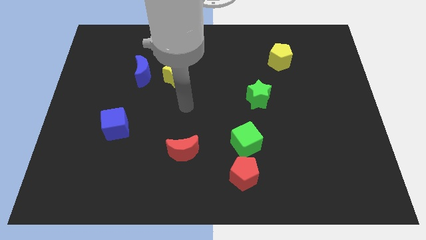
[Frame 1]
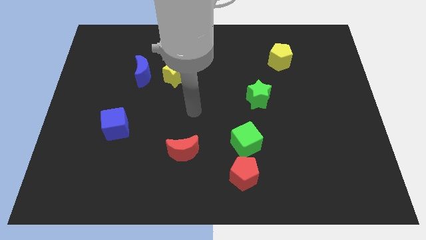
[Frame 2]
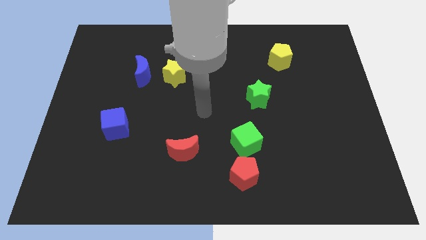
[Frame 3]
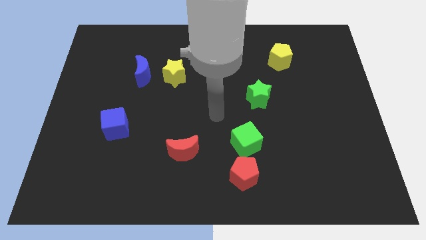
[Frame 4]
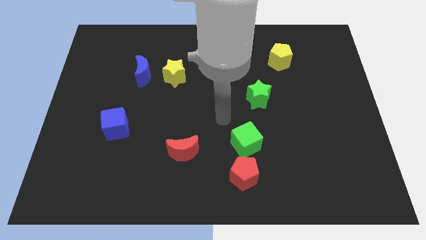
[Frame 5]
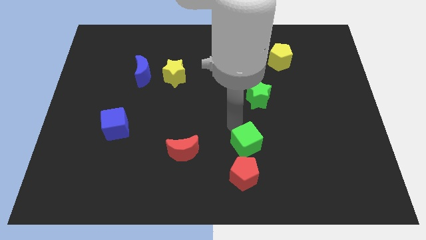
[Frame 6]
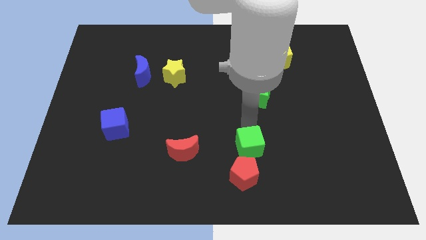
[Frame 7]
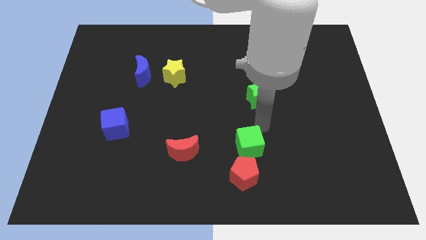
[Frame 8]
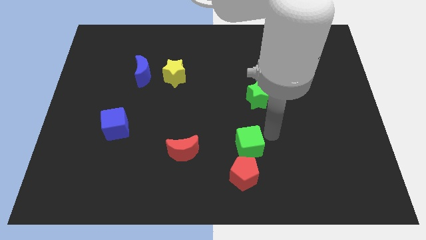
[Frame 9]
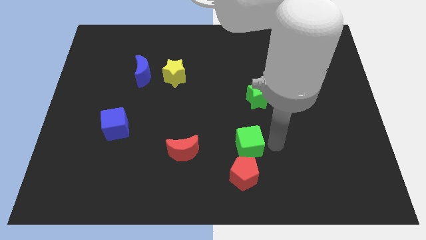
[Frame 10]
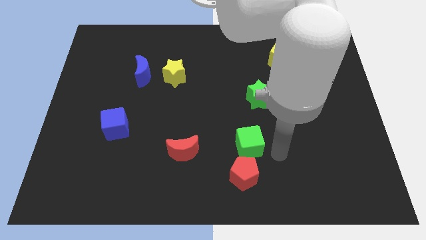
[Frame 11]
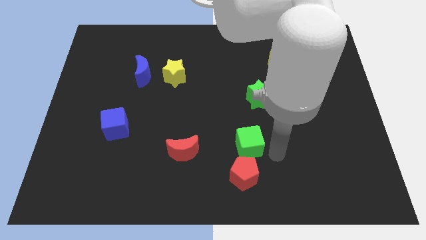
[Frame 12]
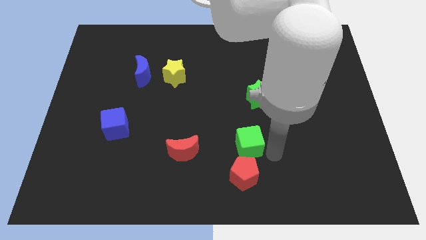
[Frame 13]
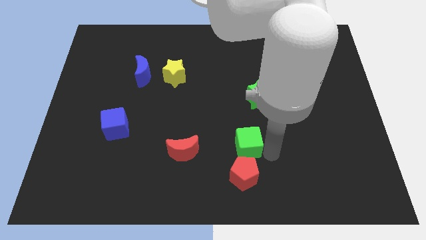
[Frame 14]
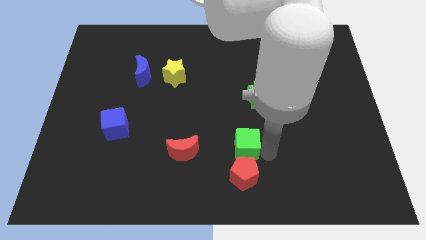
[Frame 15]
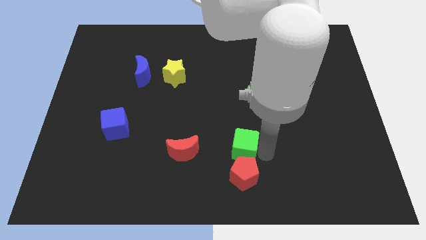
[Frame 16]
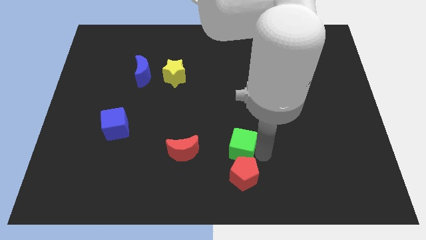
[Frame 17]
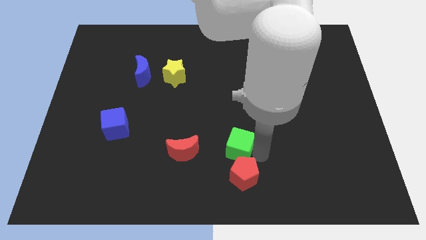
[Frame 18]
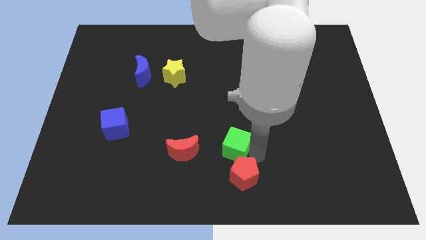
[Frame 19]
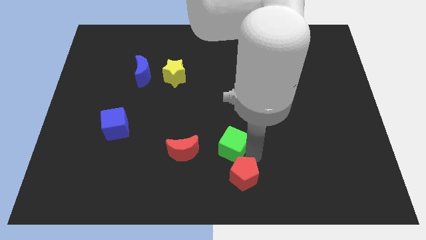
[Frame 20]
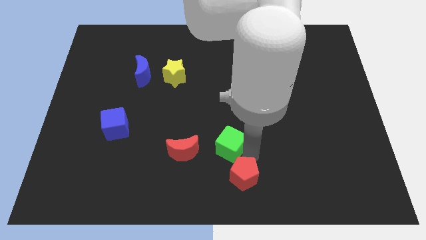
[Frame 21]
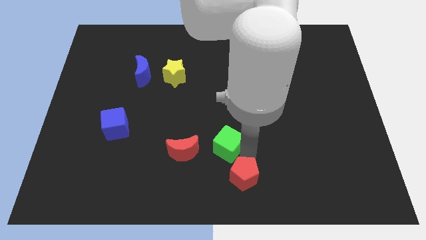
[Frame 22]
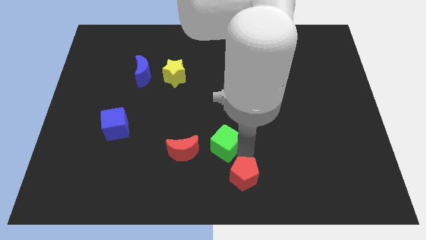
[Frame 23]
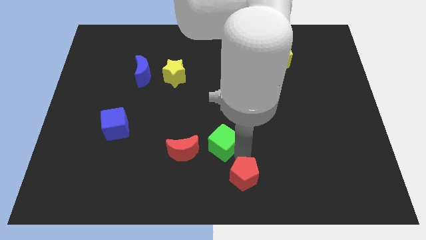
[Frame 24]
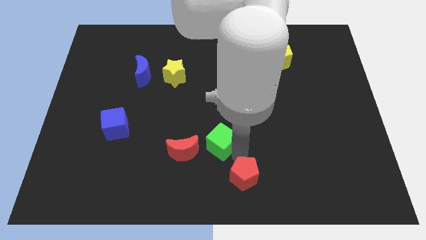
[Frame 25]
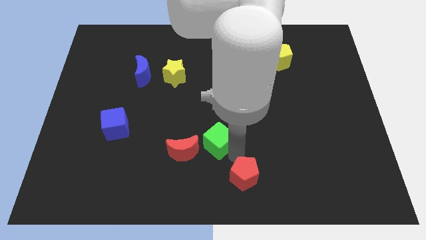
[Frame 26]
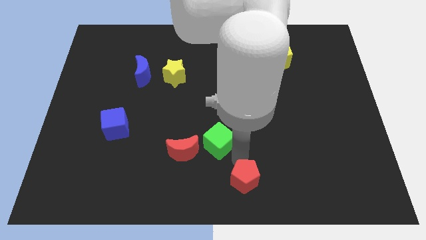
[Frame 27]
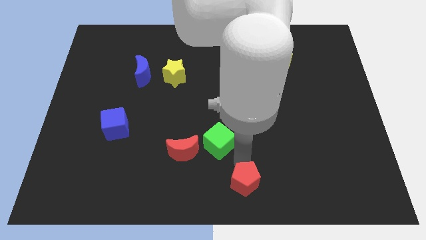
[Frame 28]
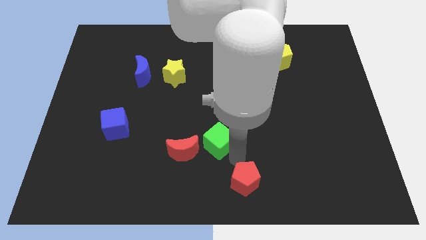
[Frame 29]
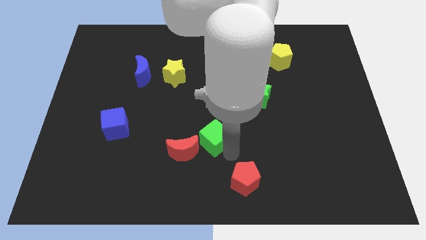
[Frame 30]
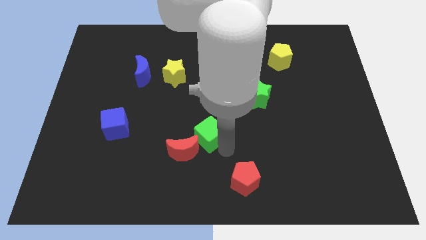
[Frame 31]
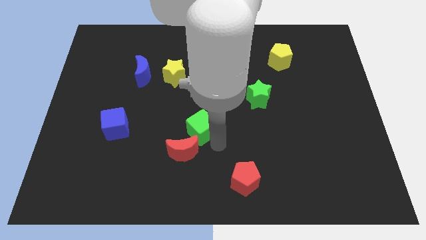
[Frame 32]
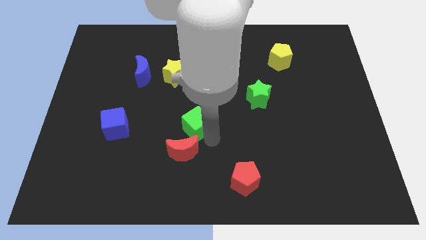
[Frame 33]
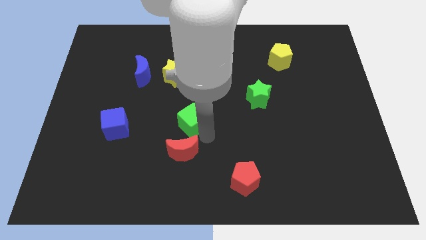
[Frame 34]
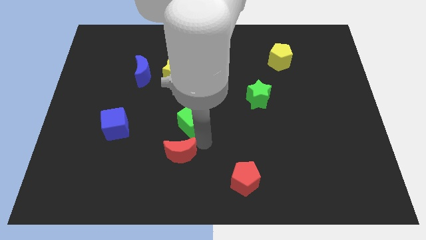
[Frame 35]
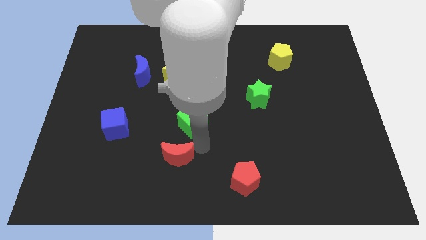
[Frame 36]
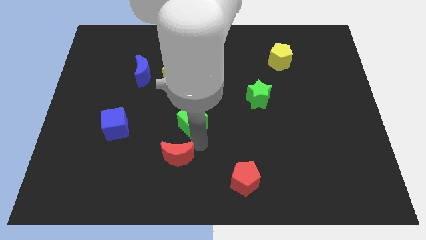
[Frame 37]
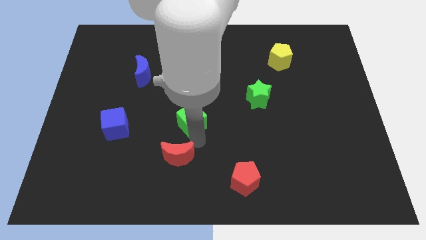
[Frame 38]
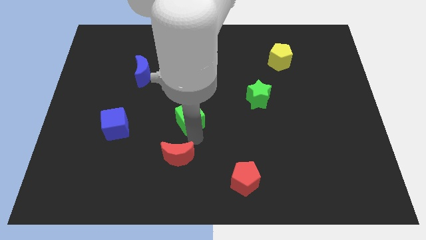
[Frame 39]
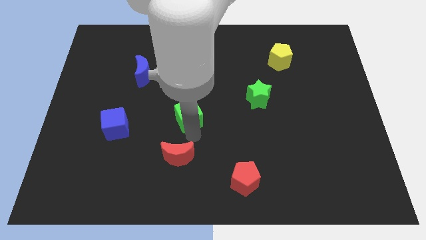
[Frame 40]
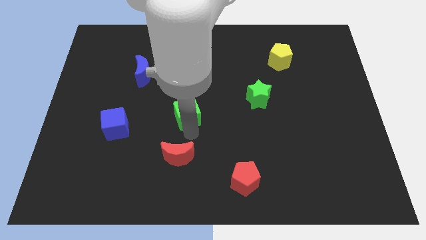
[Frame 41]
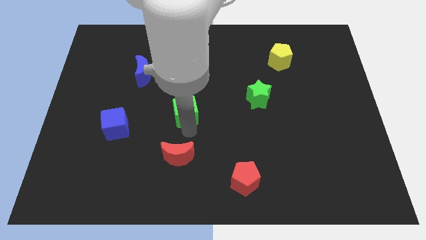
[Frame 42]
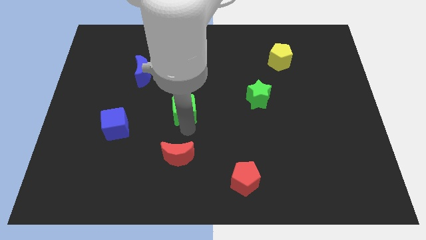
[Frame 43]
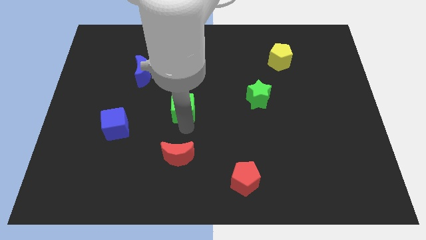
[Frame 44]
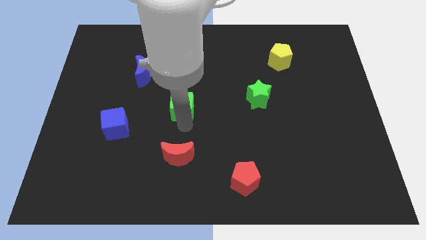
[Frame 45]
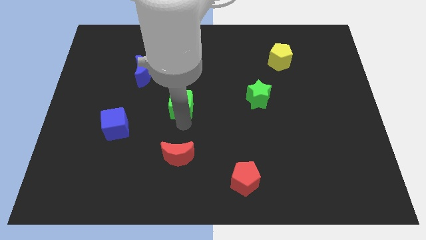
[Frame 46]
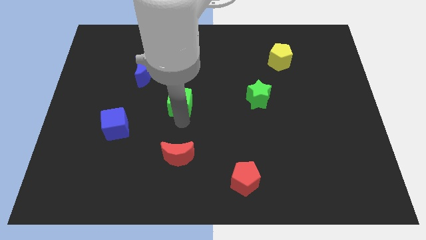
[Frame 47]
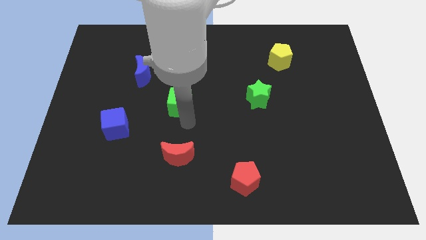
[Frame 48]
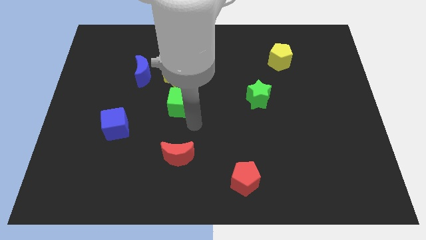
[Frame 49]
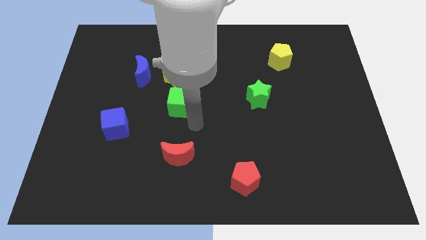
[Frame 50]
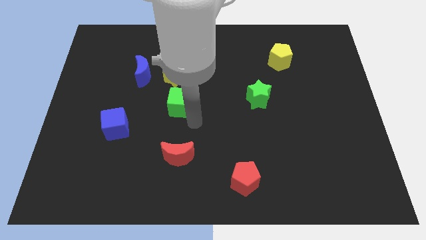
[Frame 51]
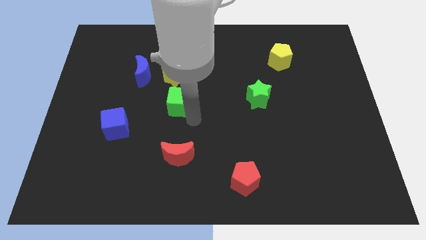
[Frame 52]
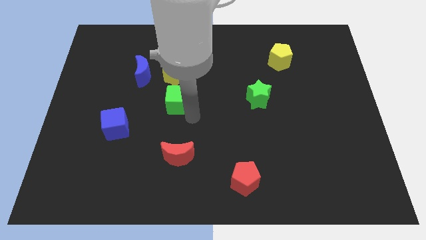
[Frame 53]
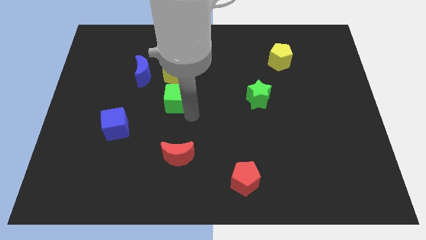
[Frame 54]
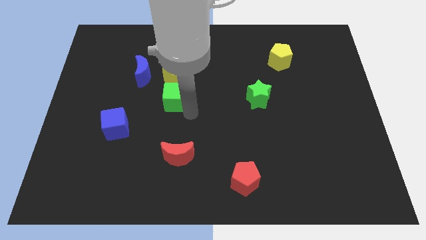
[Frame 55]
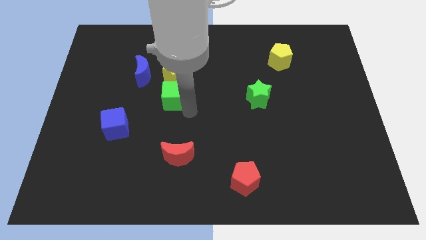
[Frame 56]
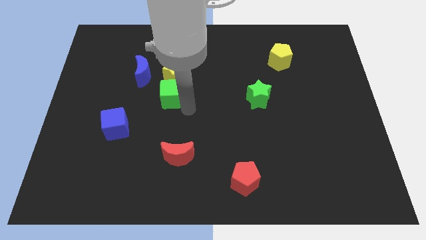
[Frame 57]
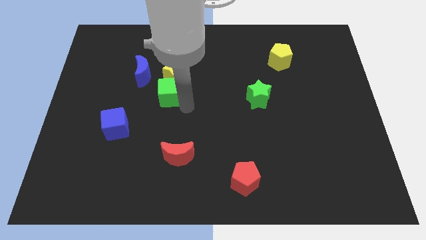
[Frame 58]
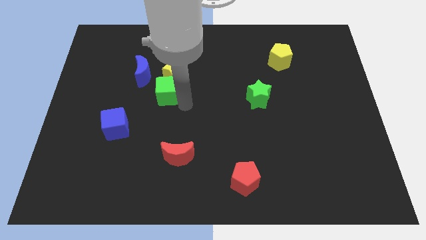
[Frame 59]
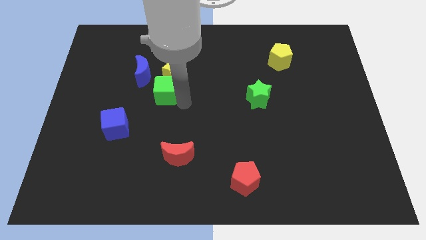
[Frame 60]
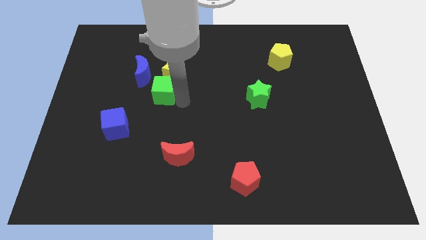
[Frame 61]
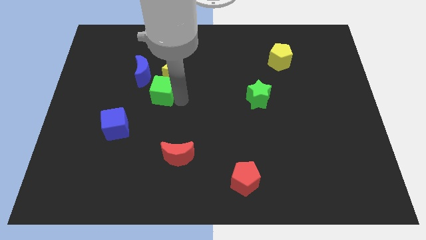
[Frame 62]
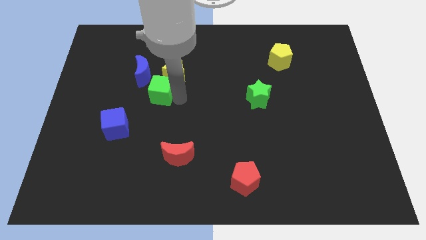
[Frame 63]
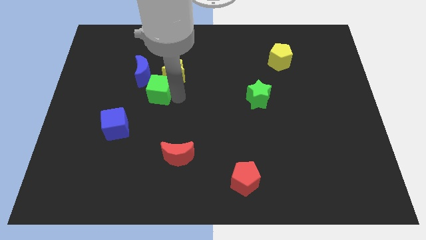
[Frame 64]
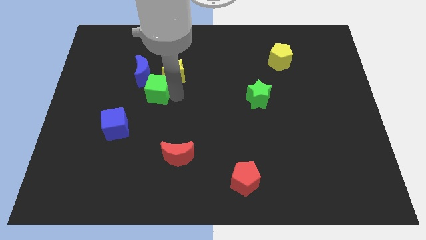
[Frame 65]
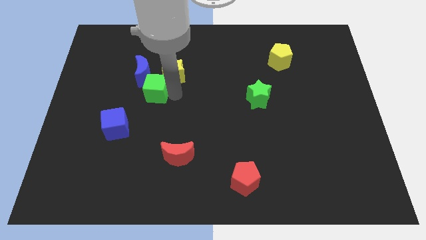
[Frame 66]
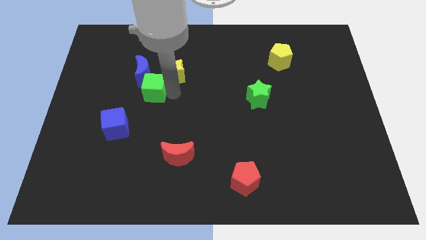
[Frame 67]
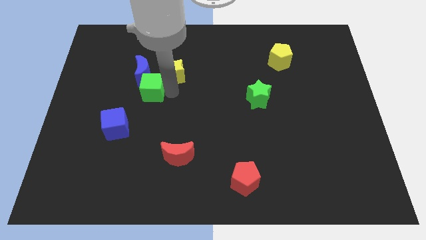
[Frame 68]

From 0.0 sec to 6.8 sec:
move the green cube towards the blue moon

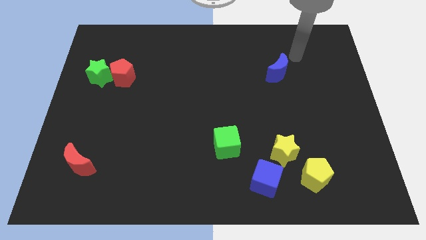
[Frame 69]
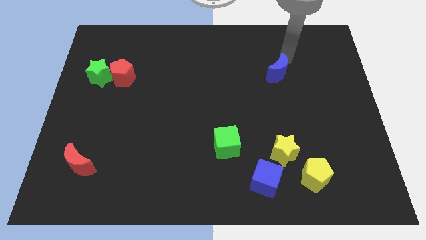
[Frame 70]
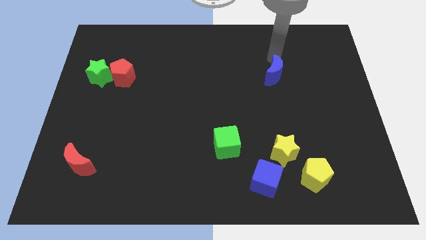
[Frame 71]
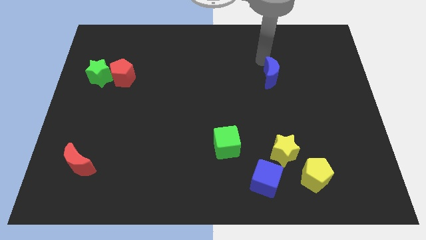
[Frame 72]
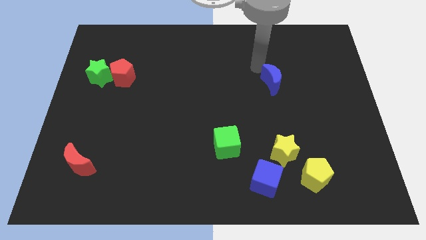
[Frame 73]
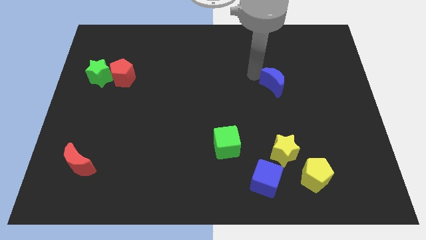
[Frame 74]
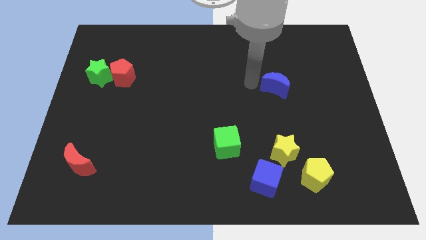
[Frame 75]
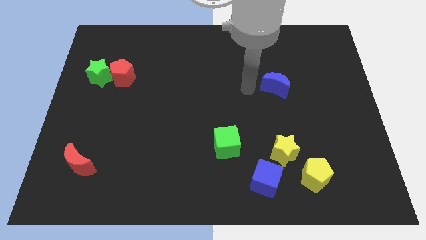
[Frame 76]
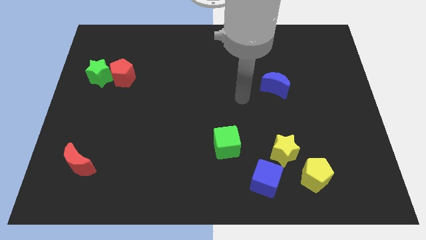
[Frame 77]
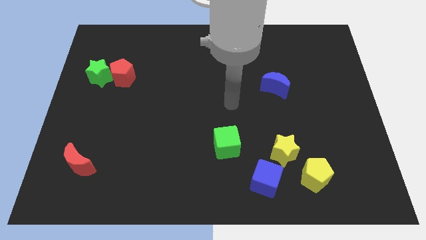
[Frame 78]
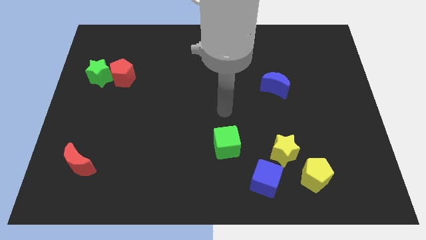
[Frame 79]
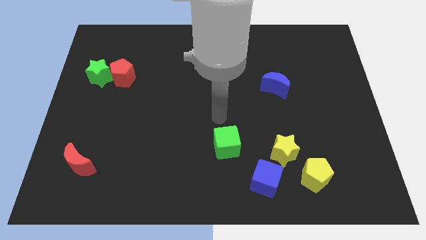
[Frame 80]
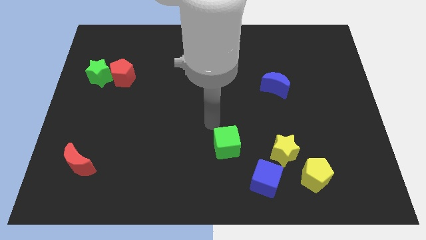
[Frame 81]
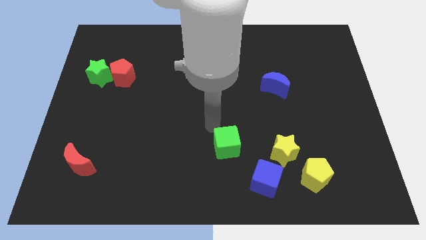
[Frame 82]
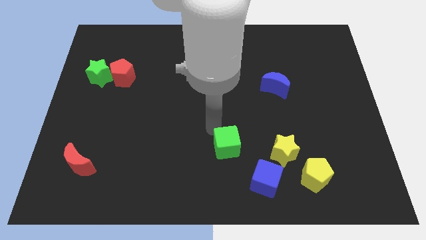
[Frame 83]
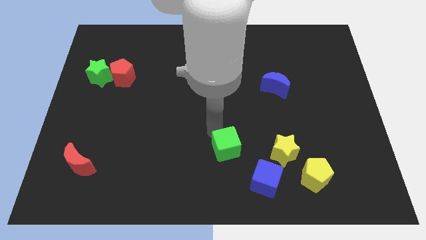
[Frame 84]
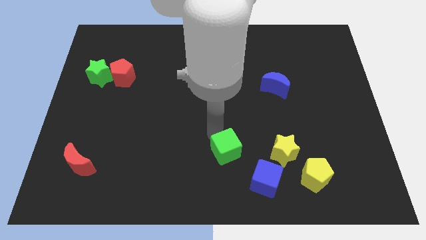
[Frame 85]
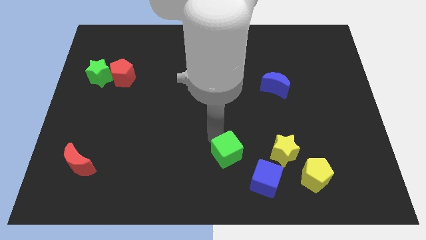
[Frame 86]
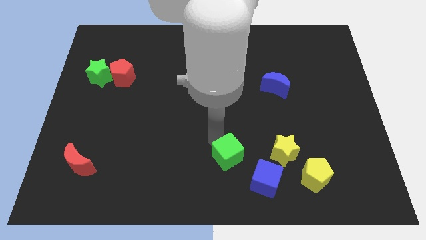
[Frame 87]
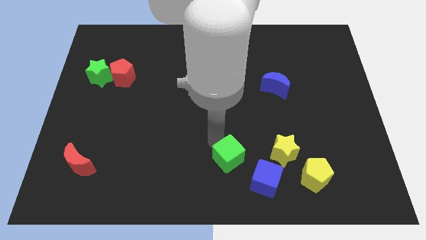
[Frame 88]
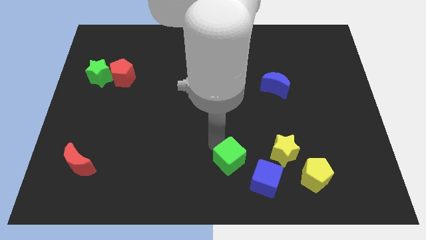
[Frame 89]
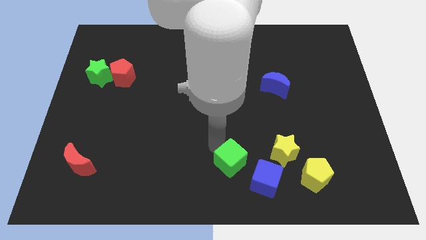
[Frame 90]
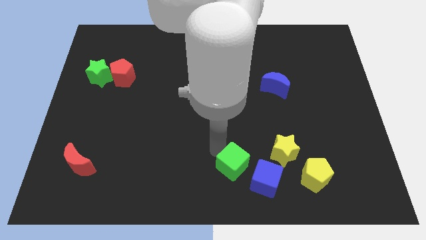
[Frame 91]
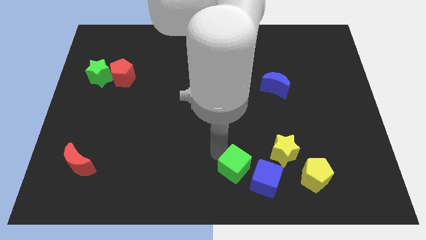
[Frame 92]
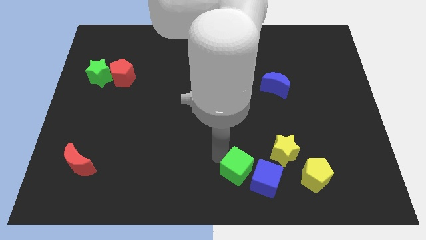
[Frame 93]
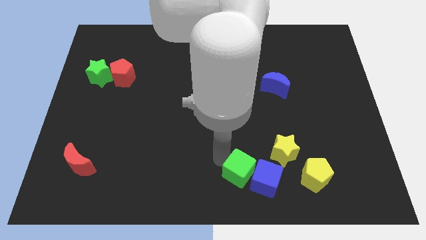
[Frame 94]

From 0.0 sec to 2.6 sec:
move the green cube next to the blue cube
